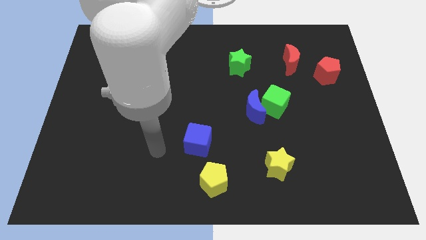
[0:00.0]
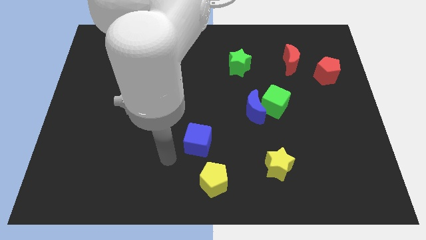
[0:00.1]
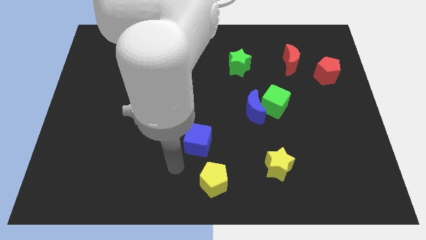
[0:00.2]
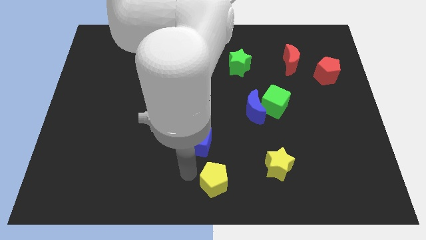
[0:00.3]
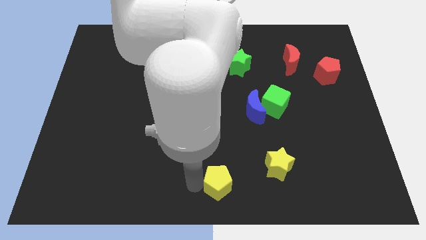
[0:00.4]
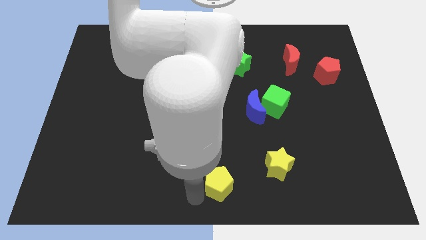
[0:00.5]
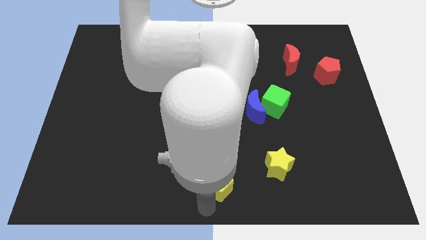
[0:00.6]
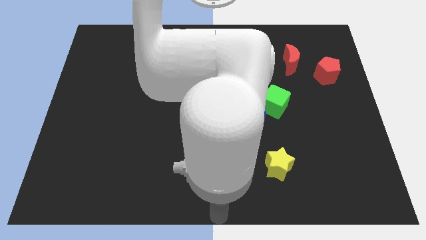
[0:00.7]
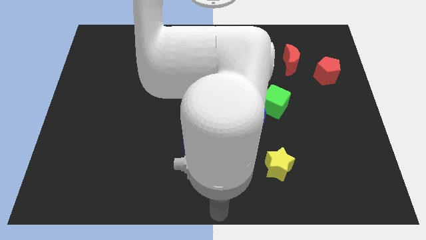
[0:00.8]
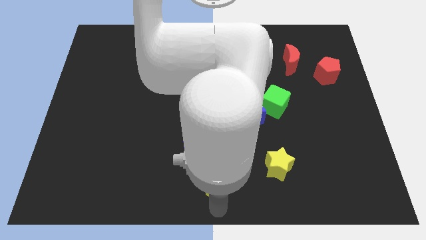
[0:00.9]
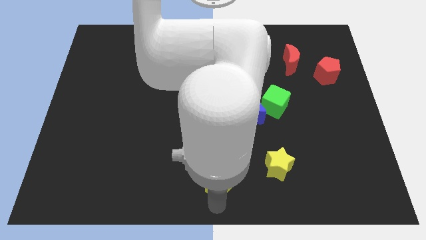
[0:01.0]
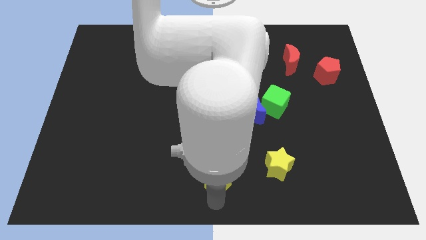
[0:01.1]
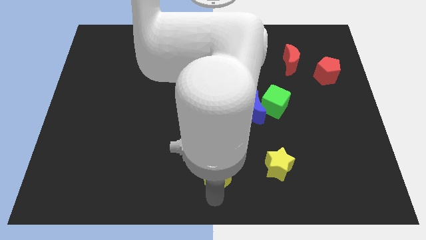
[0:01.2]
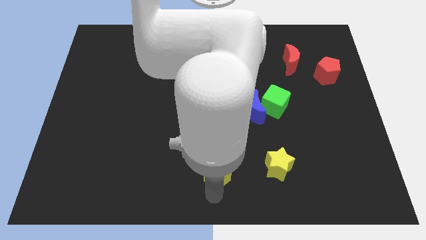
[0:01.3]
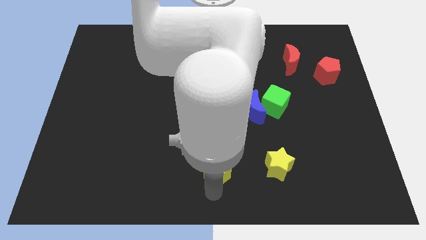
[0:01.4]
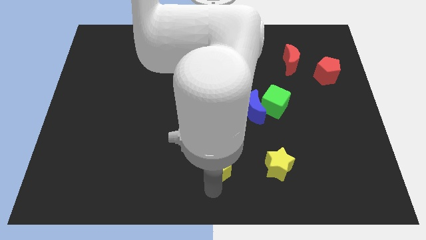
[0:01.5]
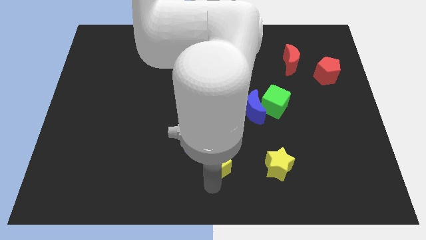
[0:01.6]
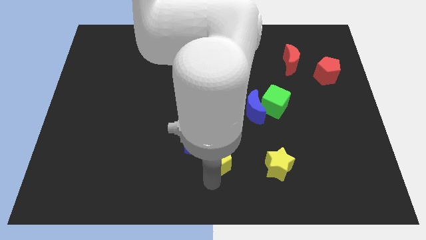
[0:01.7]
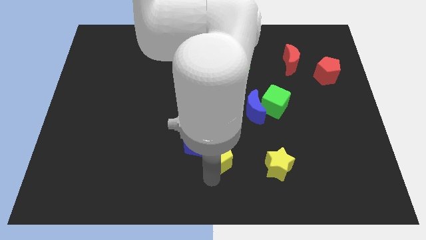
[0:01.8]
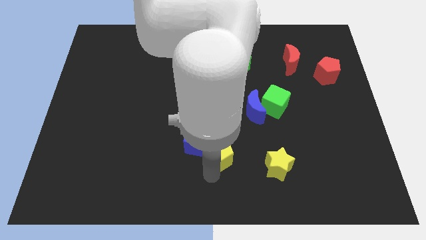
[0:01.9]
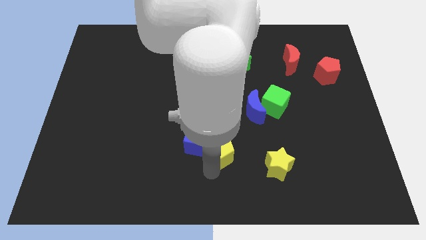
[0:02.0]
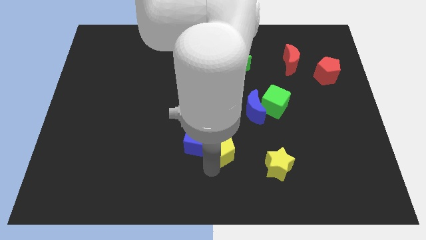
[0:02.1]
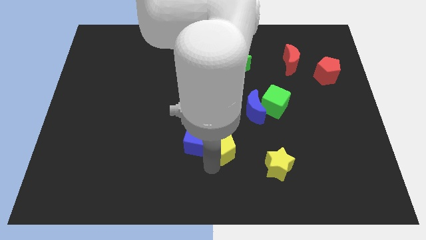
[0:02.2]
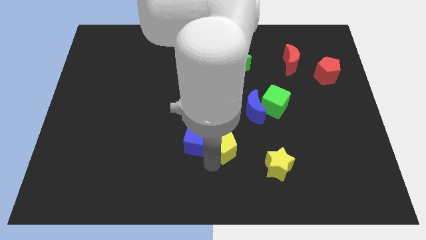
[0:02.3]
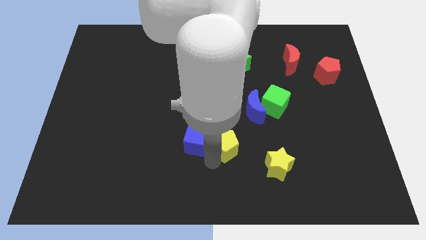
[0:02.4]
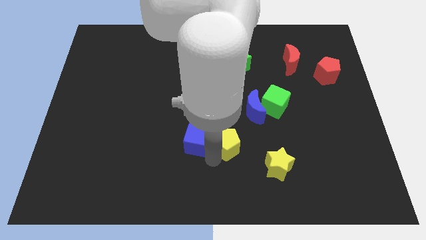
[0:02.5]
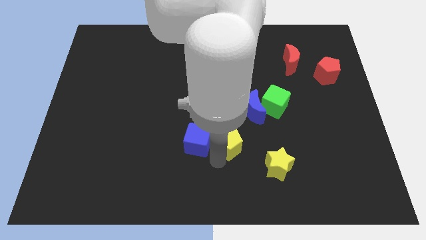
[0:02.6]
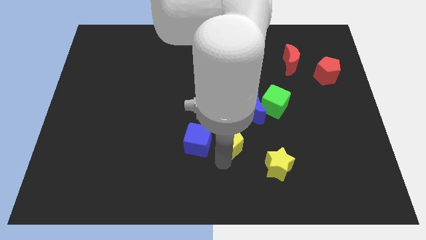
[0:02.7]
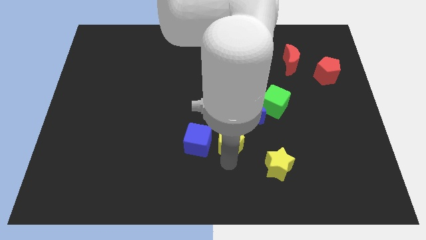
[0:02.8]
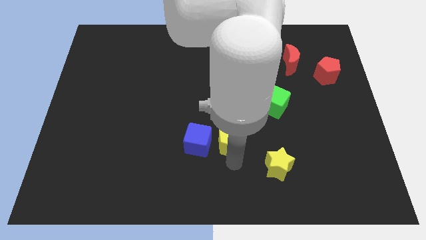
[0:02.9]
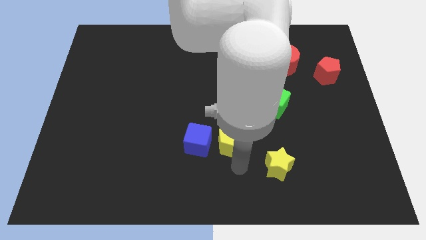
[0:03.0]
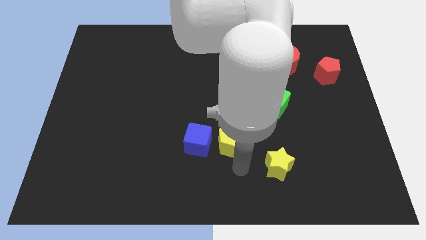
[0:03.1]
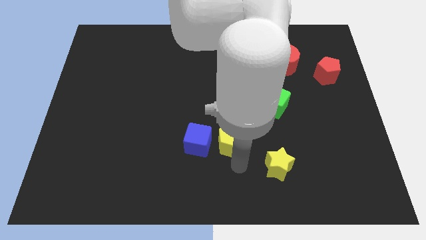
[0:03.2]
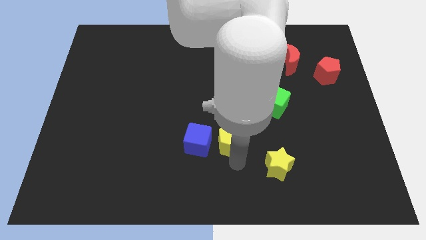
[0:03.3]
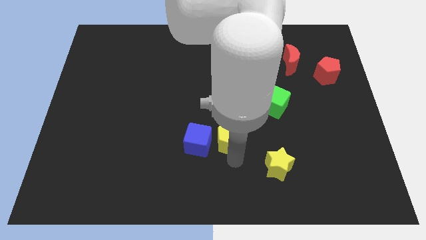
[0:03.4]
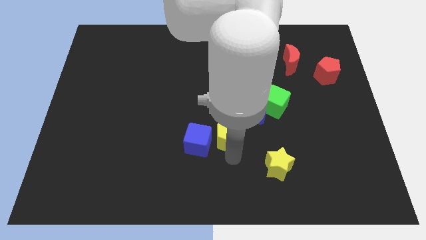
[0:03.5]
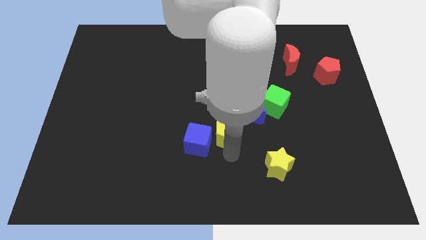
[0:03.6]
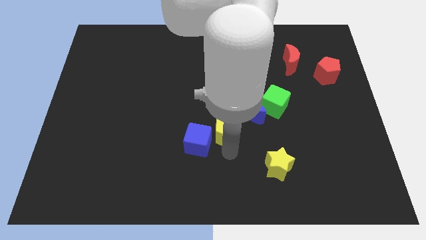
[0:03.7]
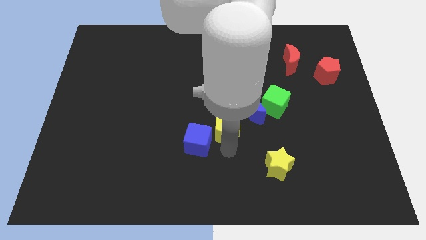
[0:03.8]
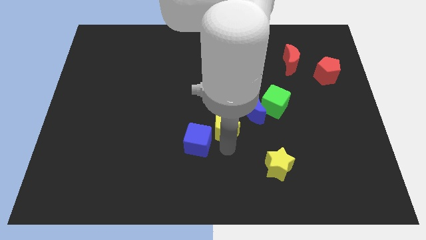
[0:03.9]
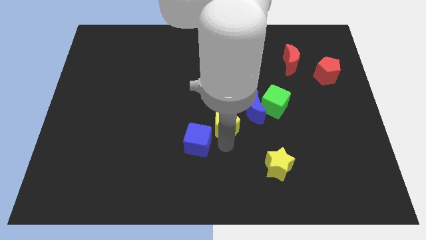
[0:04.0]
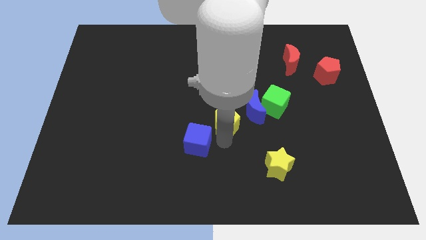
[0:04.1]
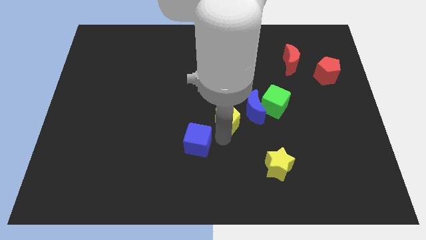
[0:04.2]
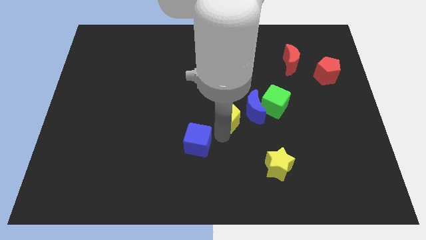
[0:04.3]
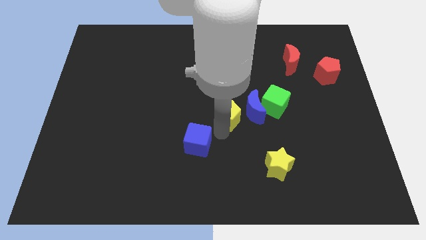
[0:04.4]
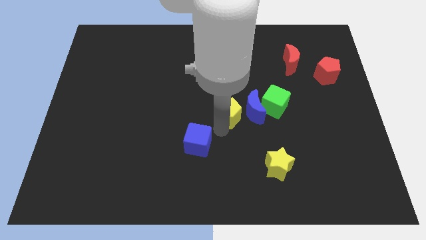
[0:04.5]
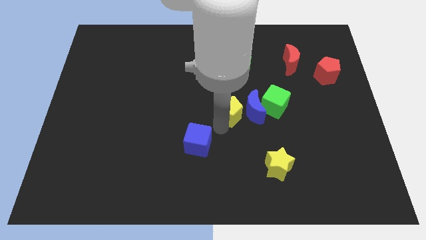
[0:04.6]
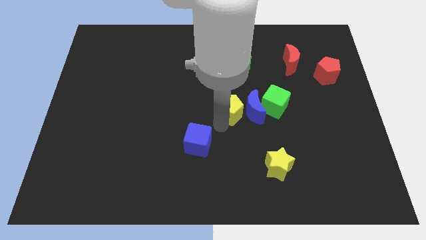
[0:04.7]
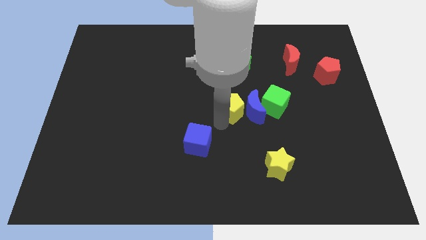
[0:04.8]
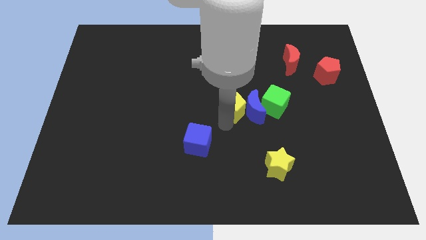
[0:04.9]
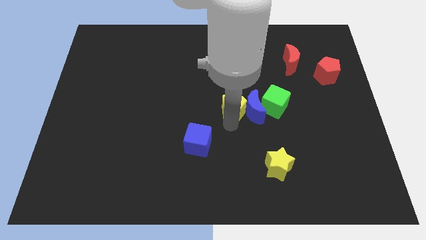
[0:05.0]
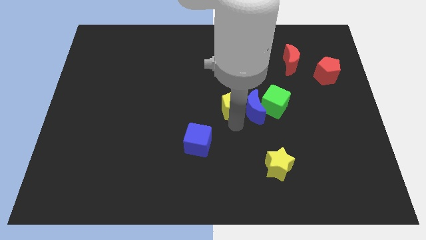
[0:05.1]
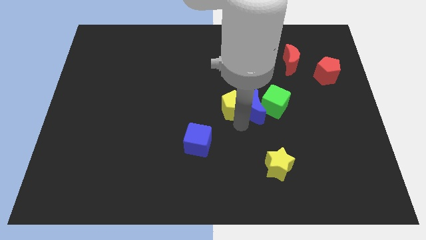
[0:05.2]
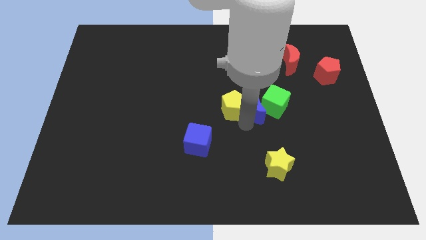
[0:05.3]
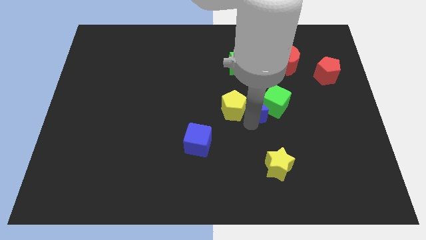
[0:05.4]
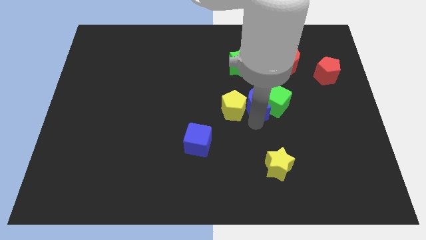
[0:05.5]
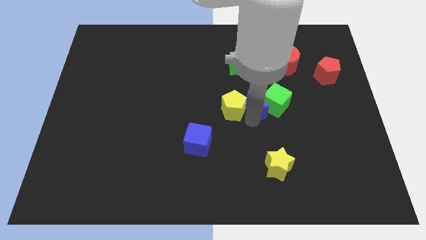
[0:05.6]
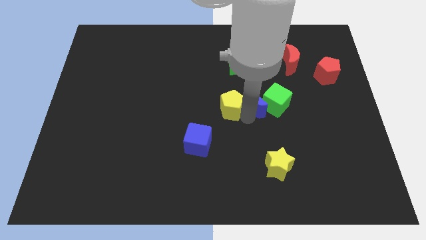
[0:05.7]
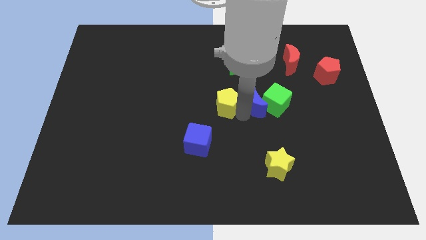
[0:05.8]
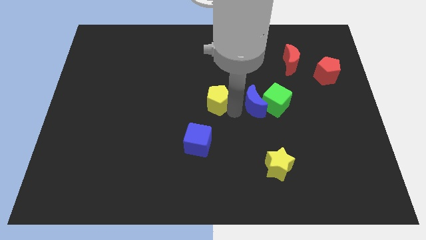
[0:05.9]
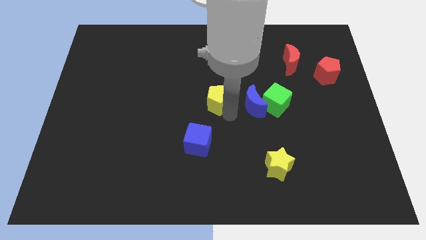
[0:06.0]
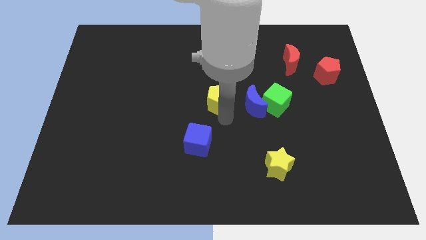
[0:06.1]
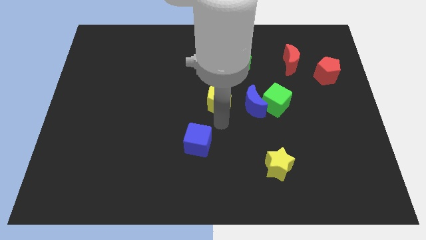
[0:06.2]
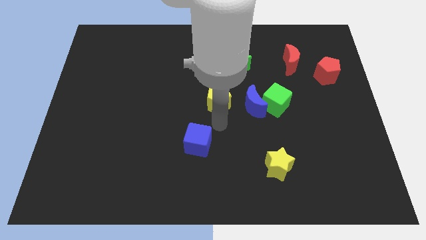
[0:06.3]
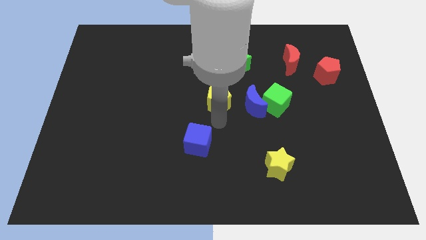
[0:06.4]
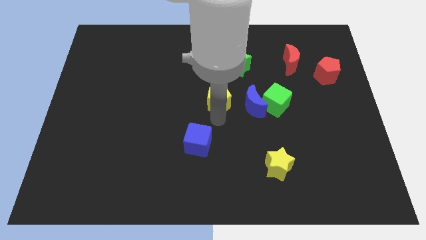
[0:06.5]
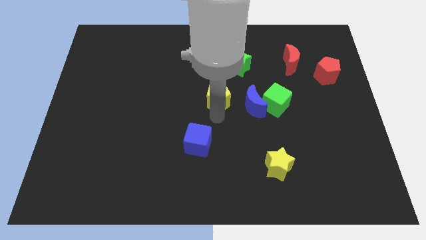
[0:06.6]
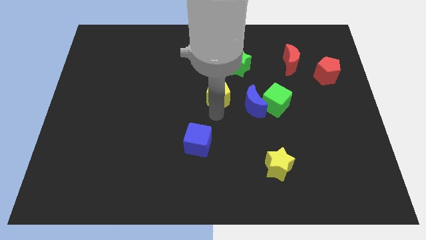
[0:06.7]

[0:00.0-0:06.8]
slide the yellow pentagon diagonally down and to the left of the green star
